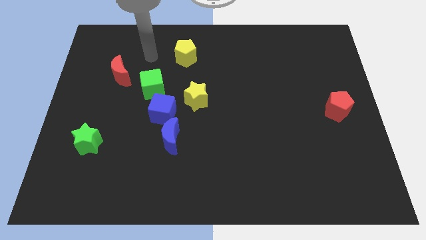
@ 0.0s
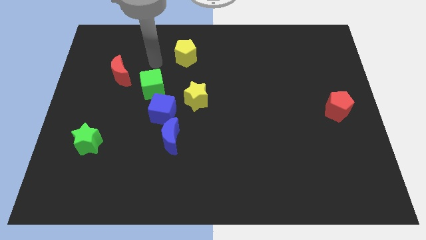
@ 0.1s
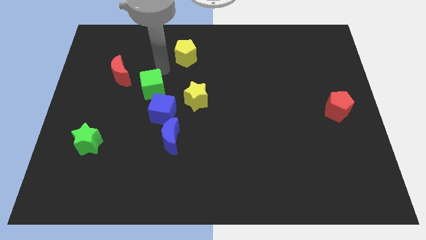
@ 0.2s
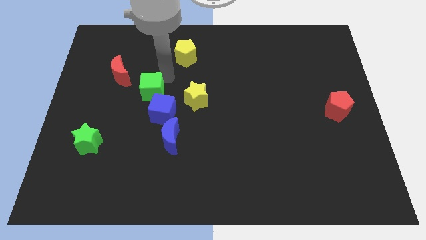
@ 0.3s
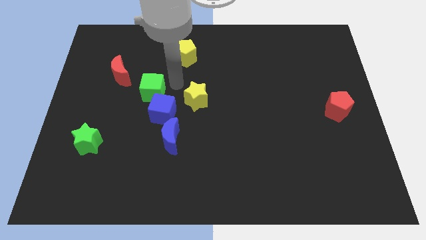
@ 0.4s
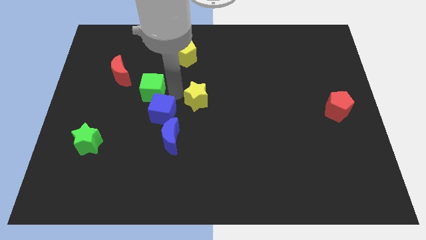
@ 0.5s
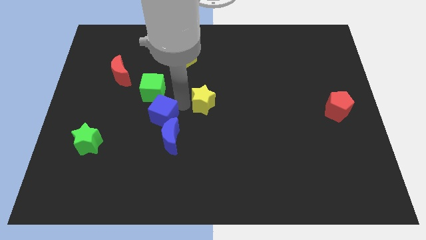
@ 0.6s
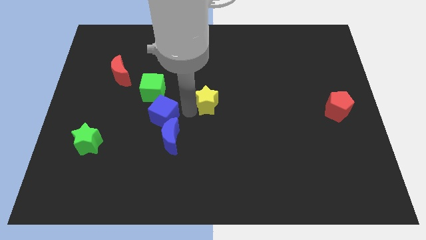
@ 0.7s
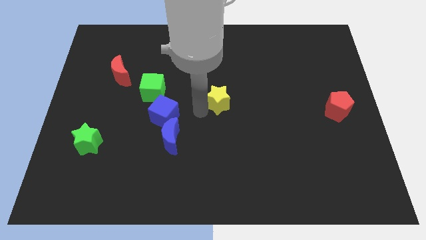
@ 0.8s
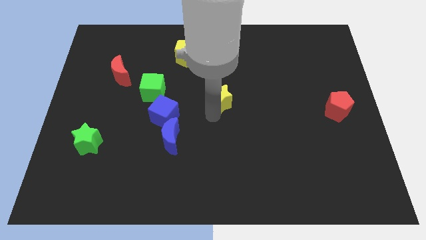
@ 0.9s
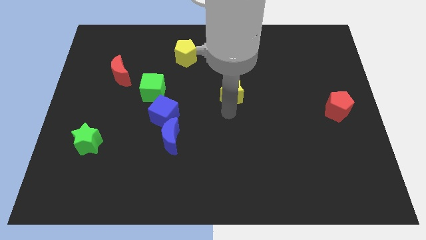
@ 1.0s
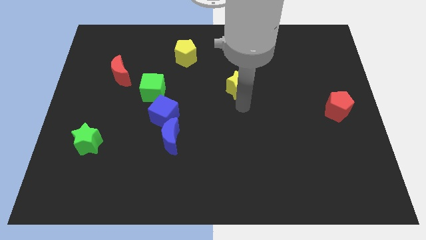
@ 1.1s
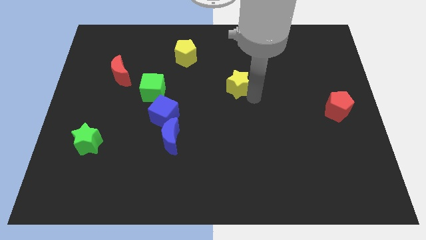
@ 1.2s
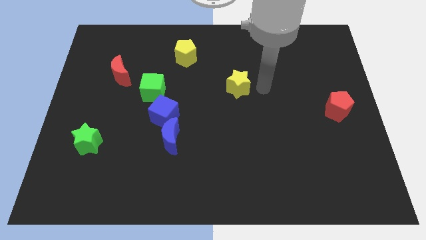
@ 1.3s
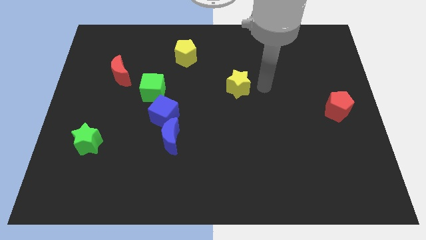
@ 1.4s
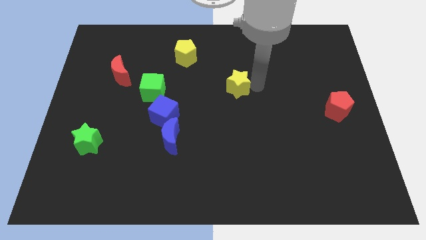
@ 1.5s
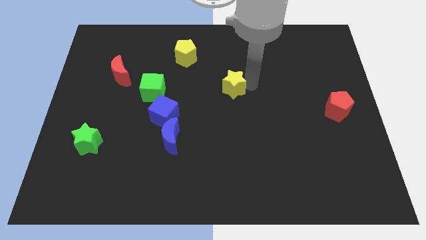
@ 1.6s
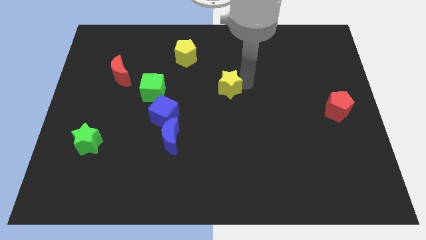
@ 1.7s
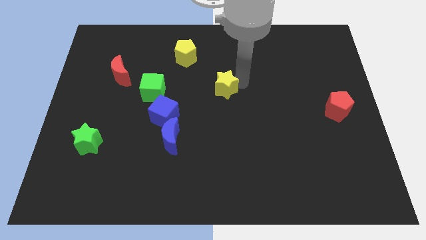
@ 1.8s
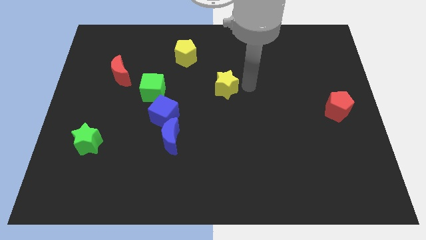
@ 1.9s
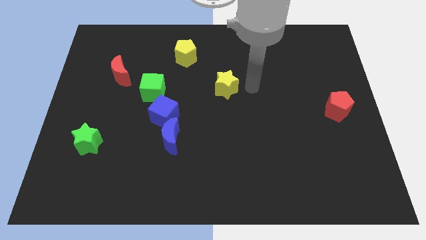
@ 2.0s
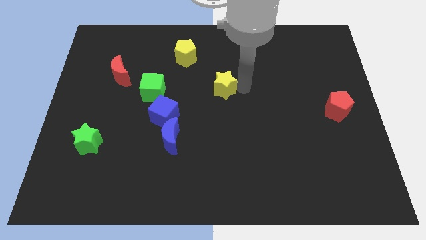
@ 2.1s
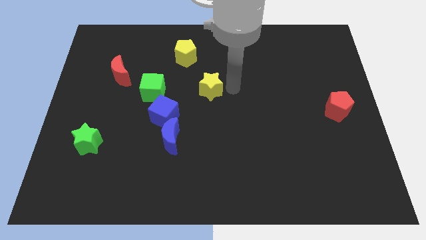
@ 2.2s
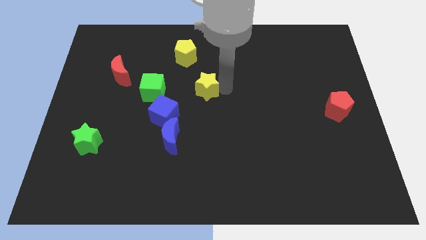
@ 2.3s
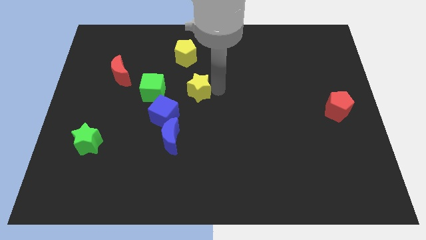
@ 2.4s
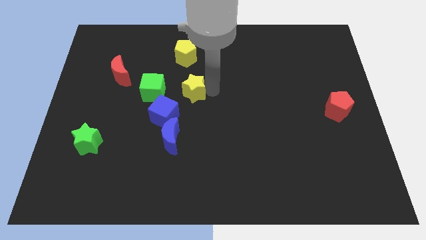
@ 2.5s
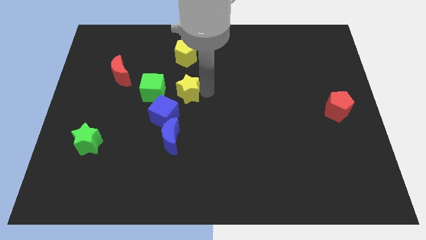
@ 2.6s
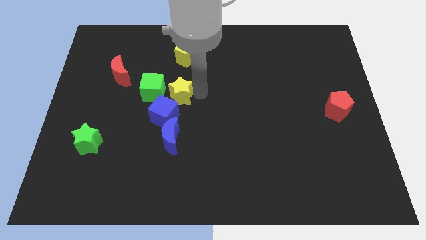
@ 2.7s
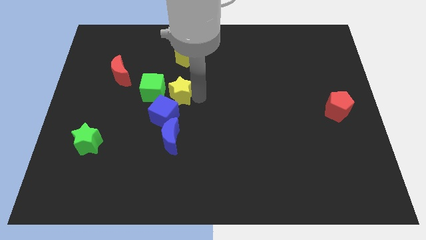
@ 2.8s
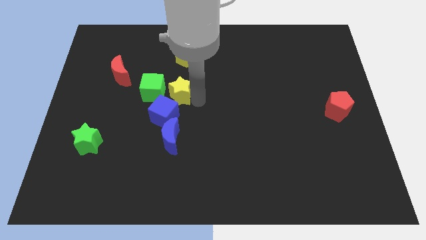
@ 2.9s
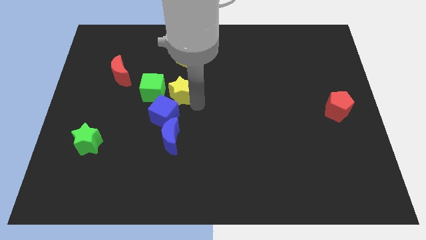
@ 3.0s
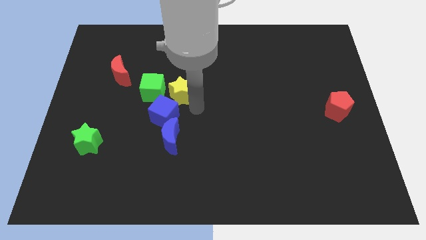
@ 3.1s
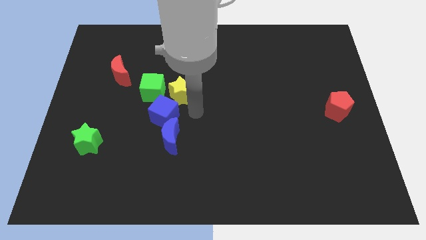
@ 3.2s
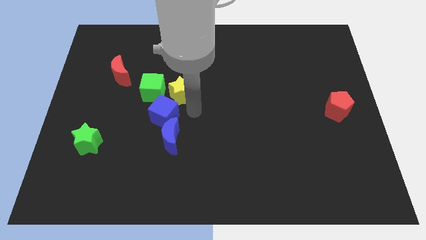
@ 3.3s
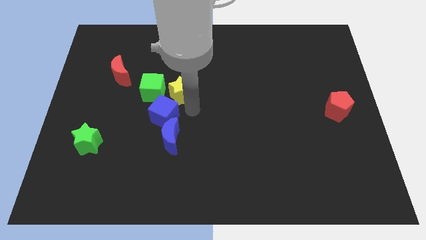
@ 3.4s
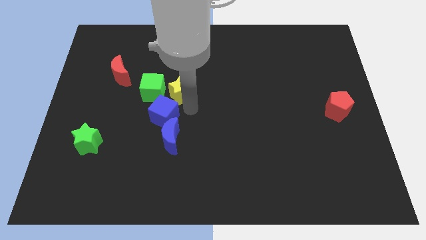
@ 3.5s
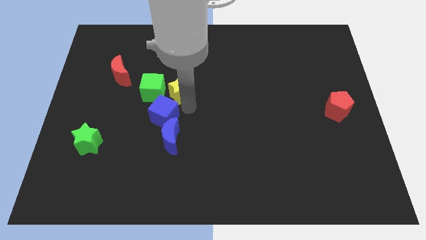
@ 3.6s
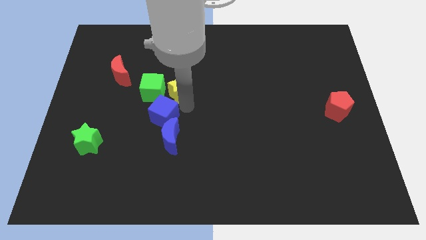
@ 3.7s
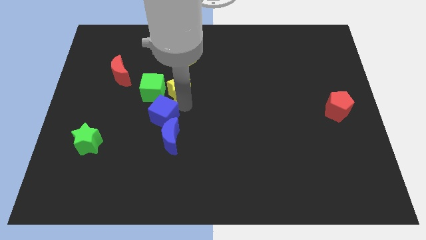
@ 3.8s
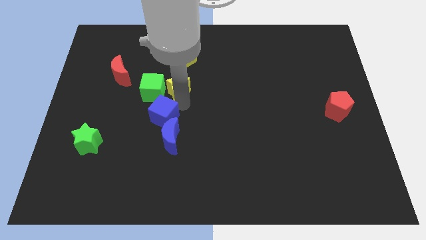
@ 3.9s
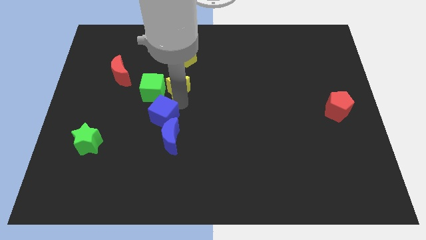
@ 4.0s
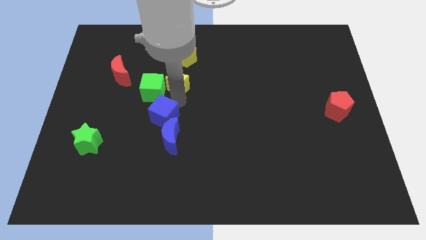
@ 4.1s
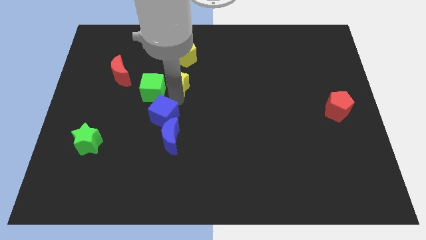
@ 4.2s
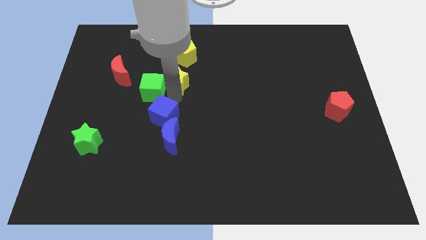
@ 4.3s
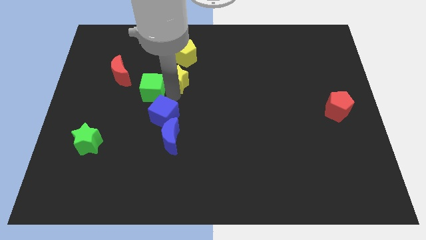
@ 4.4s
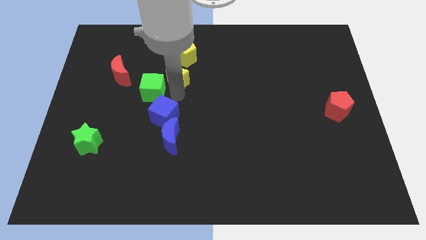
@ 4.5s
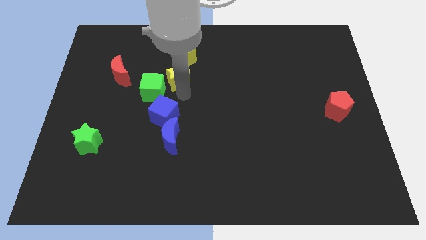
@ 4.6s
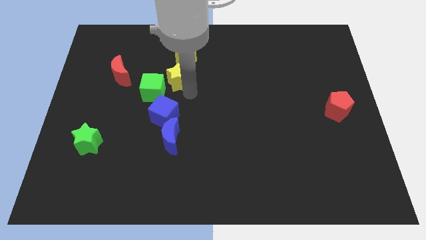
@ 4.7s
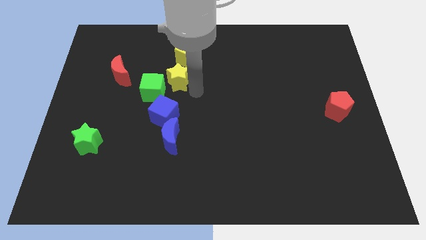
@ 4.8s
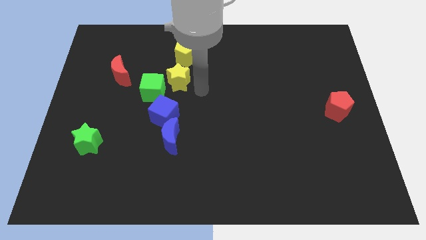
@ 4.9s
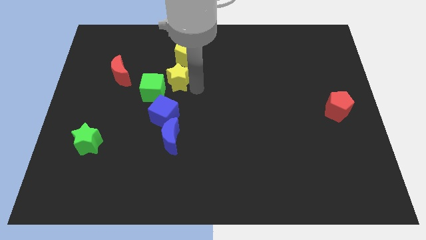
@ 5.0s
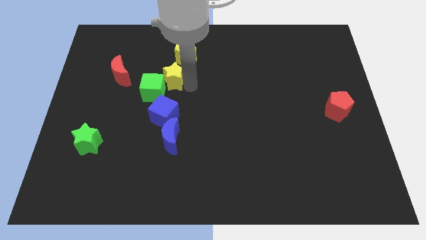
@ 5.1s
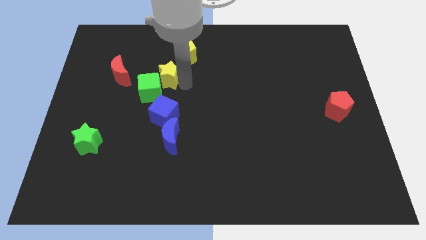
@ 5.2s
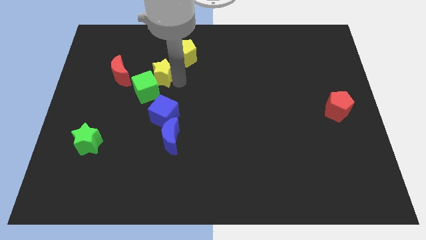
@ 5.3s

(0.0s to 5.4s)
slightly push the yellow star to the left

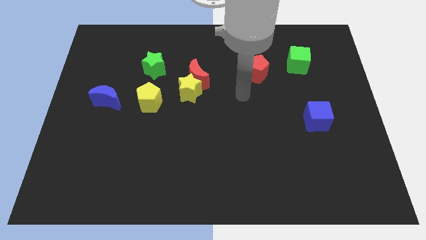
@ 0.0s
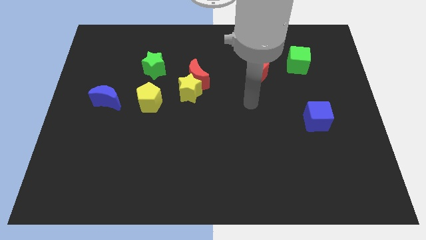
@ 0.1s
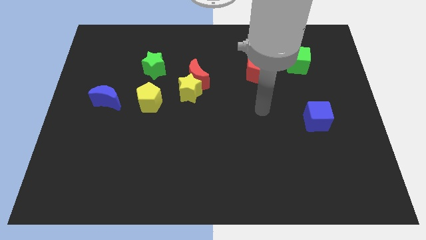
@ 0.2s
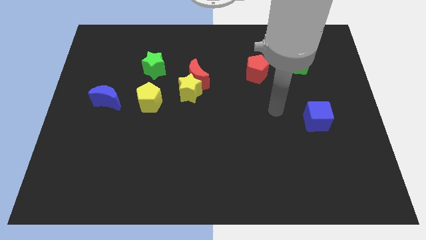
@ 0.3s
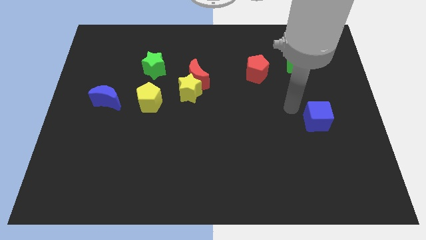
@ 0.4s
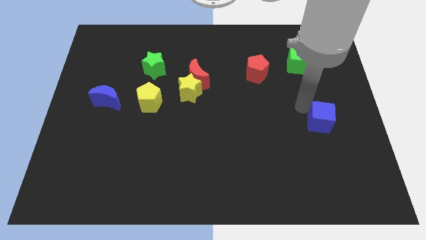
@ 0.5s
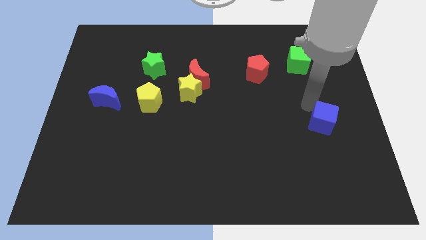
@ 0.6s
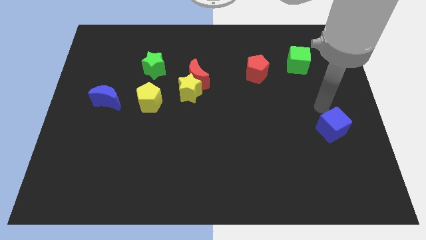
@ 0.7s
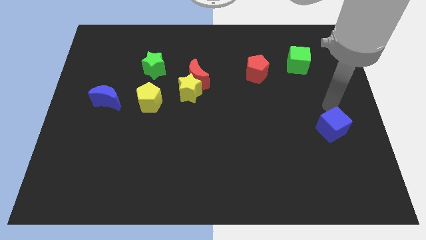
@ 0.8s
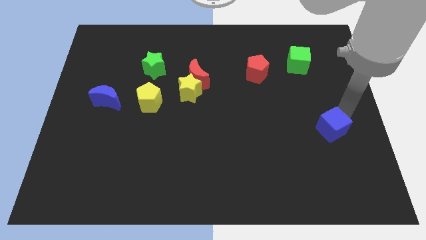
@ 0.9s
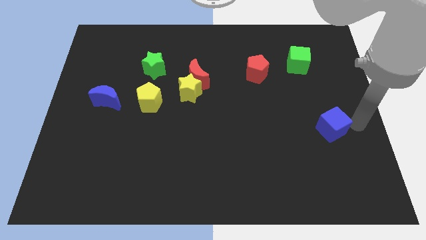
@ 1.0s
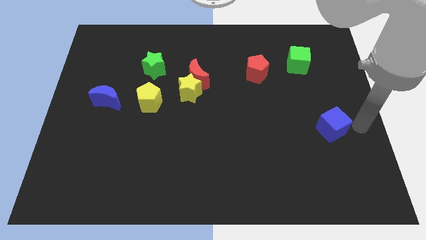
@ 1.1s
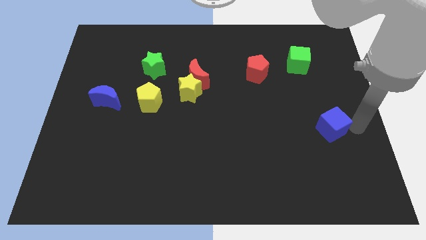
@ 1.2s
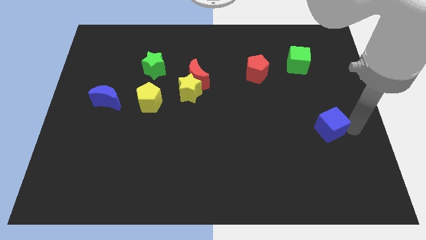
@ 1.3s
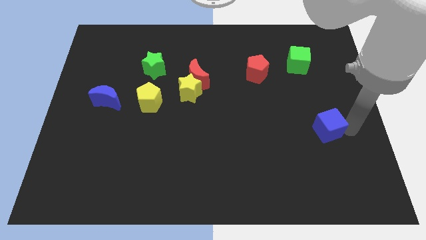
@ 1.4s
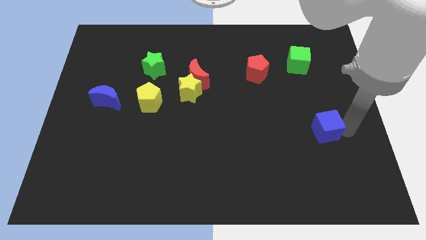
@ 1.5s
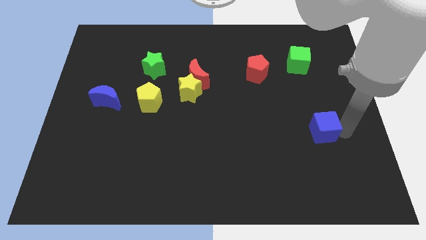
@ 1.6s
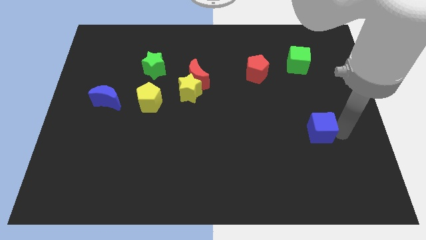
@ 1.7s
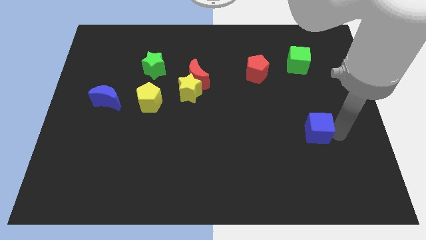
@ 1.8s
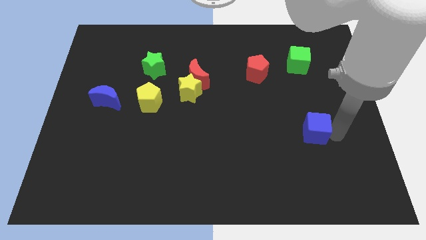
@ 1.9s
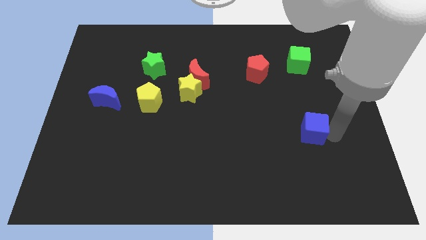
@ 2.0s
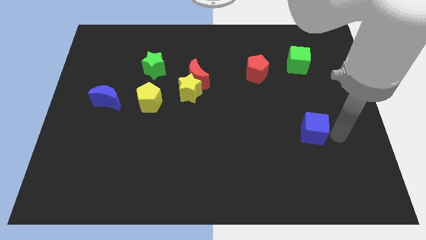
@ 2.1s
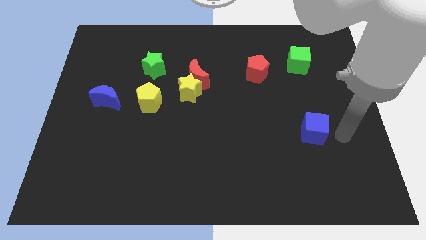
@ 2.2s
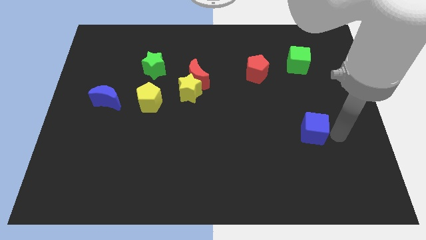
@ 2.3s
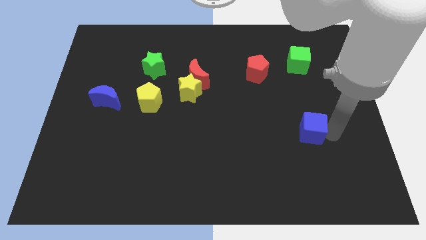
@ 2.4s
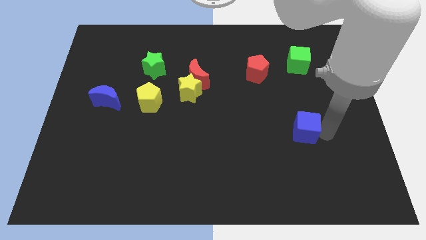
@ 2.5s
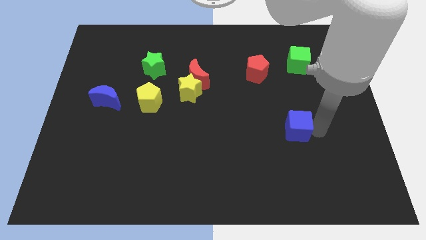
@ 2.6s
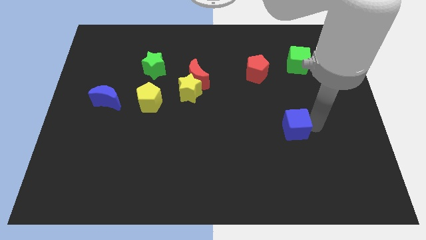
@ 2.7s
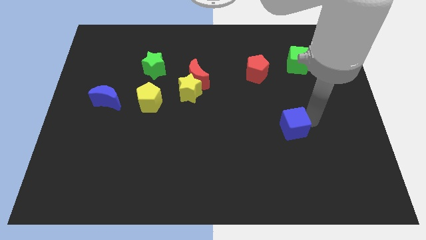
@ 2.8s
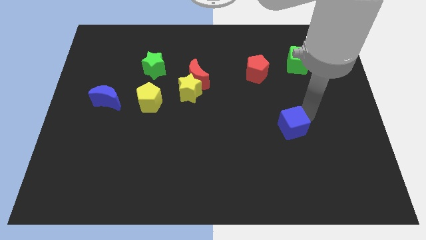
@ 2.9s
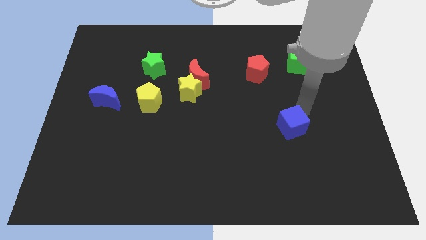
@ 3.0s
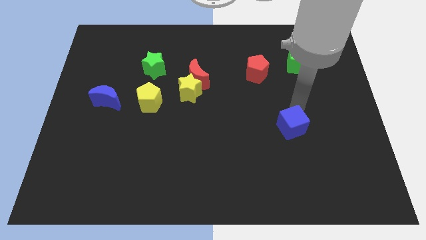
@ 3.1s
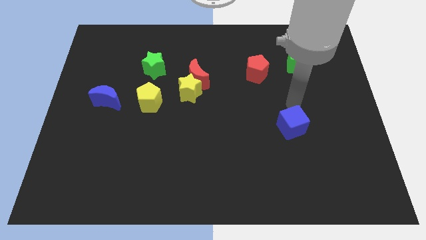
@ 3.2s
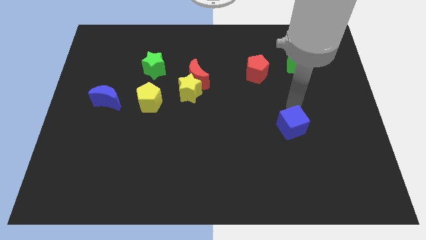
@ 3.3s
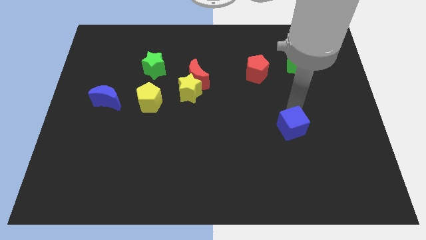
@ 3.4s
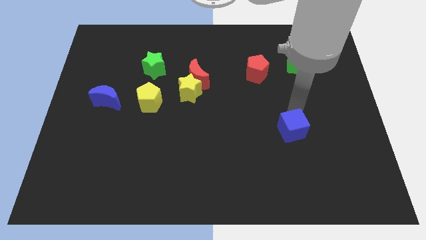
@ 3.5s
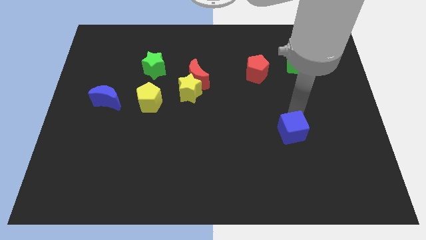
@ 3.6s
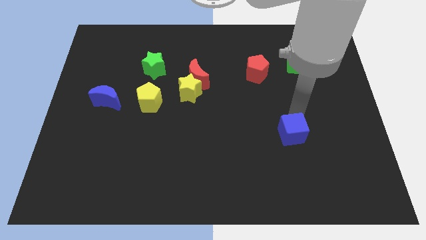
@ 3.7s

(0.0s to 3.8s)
push the blue cube a little bit diagonally downwards and left
